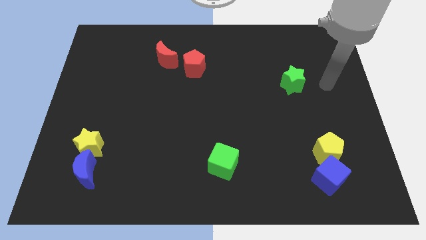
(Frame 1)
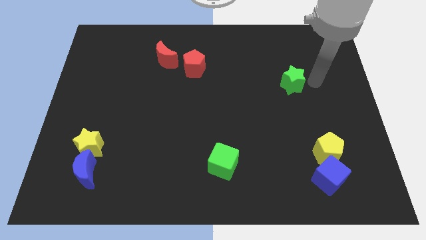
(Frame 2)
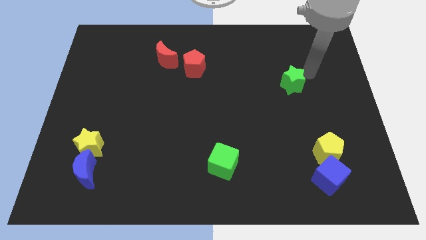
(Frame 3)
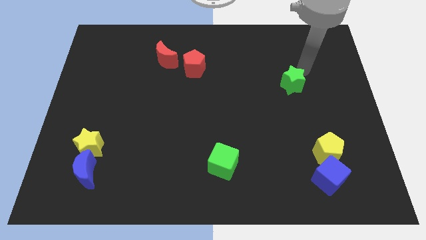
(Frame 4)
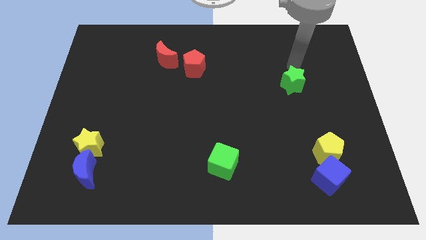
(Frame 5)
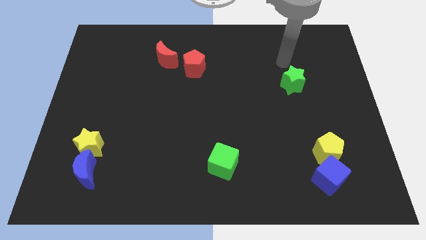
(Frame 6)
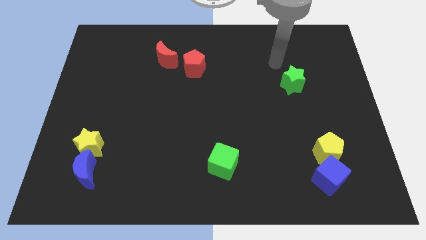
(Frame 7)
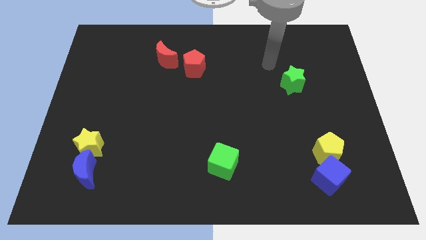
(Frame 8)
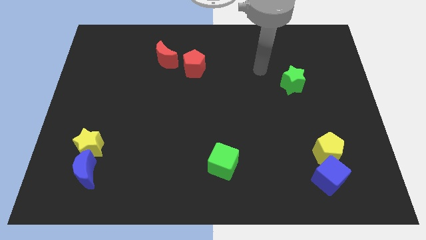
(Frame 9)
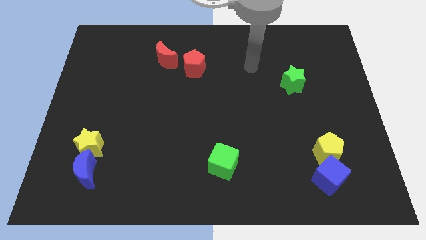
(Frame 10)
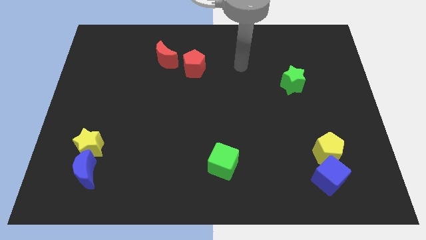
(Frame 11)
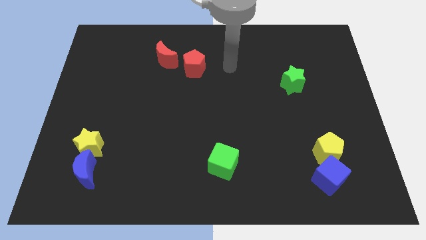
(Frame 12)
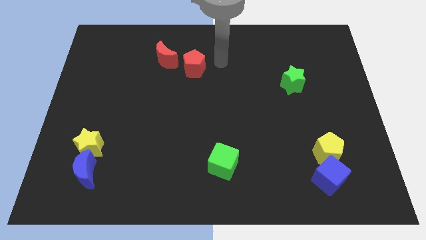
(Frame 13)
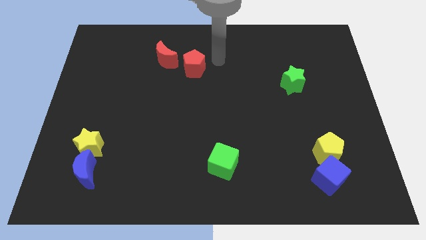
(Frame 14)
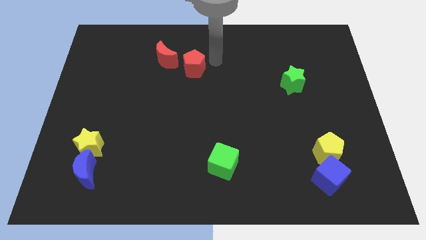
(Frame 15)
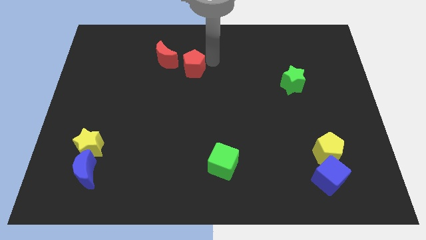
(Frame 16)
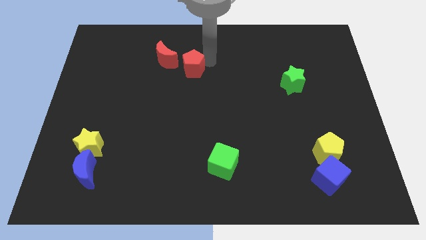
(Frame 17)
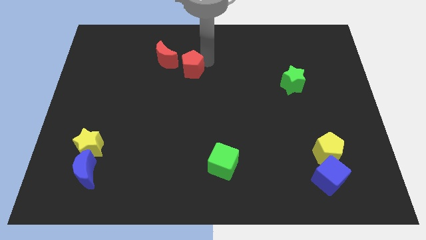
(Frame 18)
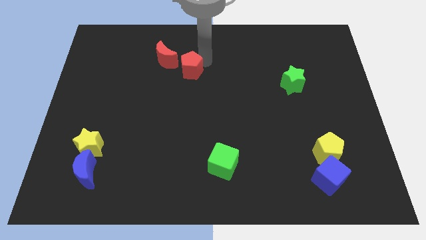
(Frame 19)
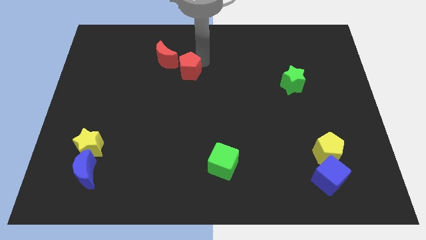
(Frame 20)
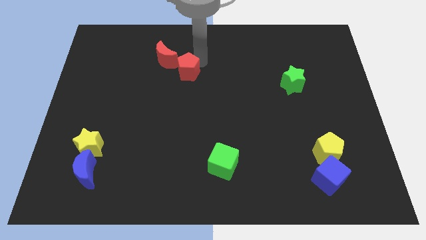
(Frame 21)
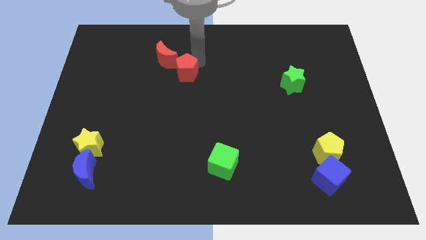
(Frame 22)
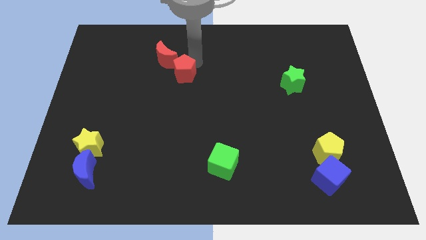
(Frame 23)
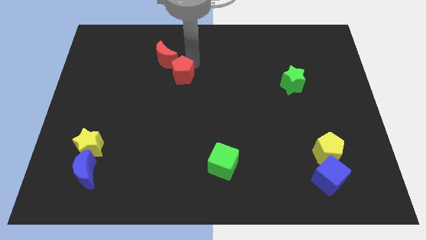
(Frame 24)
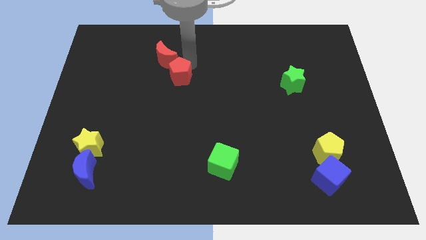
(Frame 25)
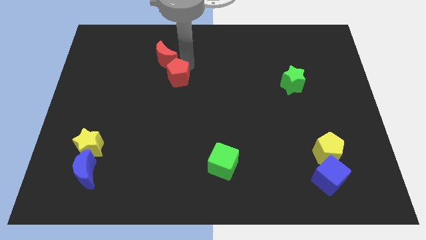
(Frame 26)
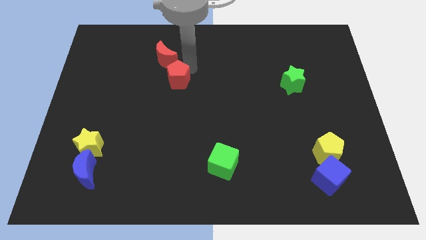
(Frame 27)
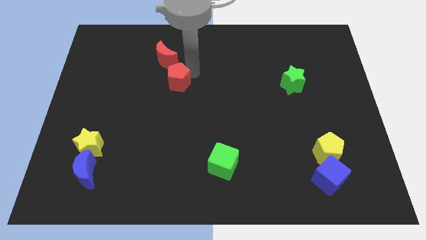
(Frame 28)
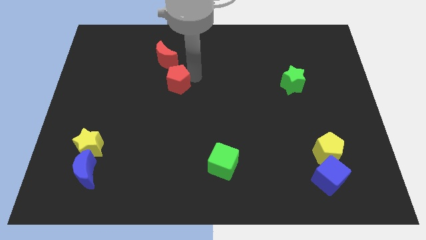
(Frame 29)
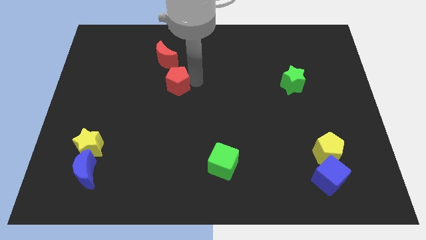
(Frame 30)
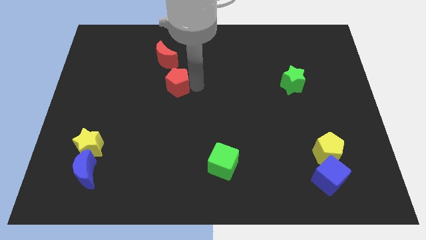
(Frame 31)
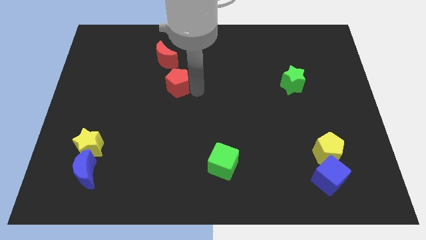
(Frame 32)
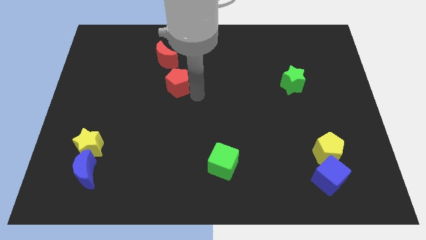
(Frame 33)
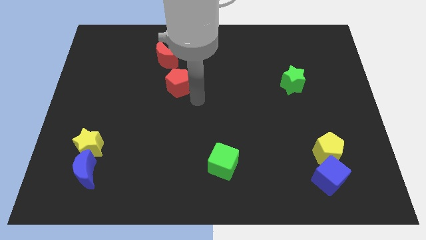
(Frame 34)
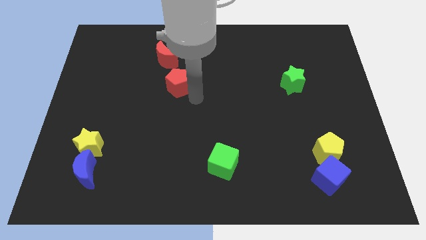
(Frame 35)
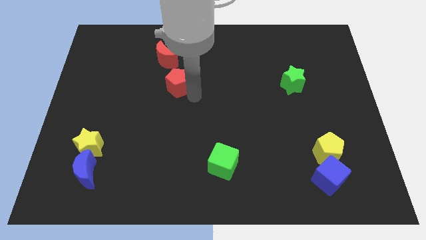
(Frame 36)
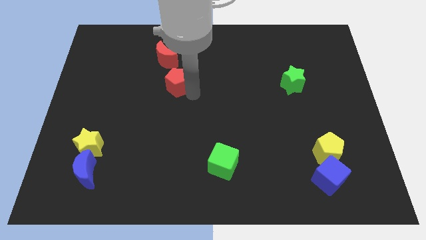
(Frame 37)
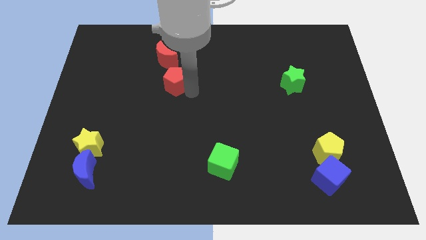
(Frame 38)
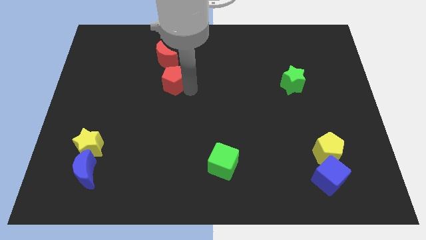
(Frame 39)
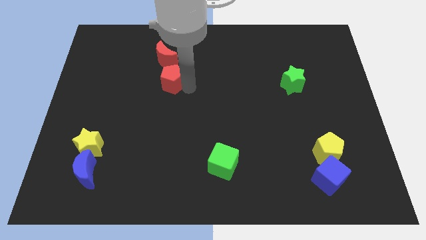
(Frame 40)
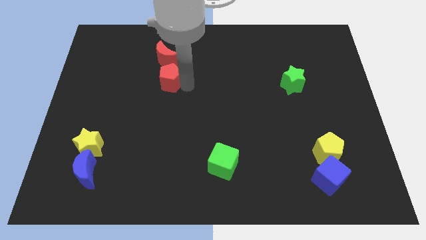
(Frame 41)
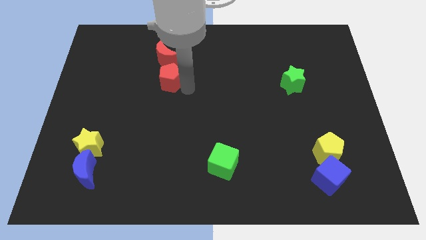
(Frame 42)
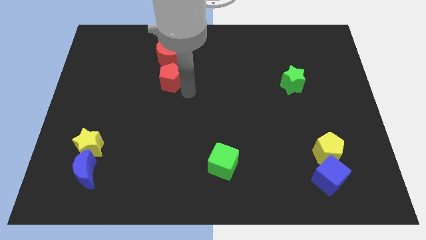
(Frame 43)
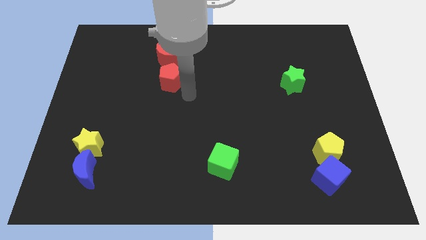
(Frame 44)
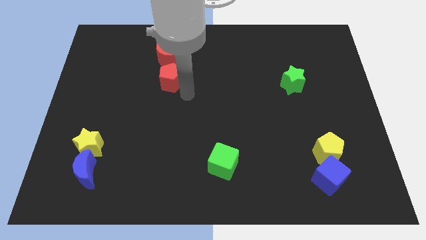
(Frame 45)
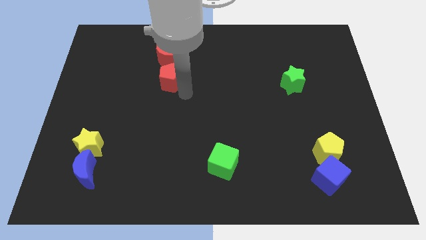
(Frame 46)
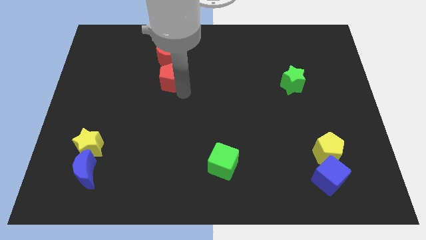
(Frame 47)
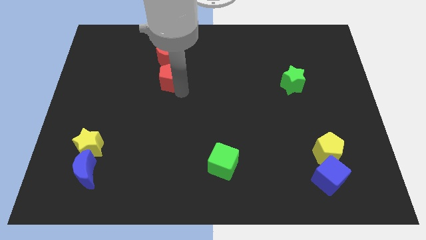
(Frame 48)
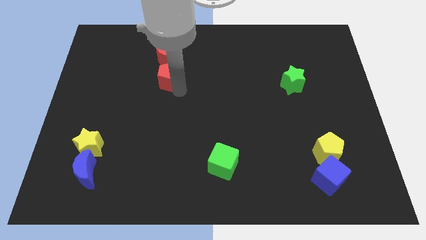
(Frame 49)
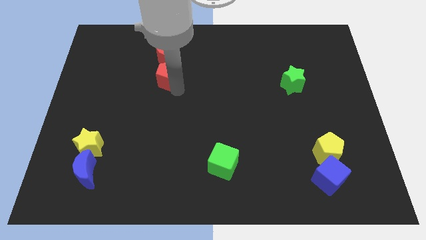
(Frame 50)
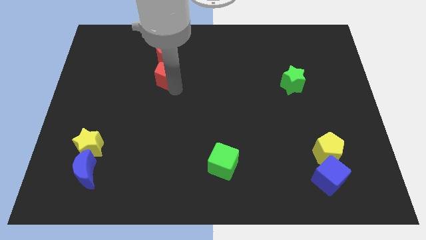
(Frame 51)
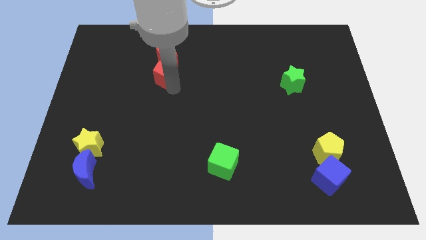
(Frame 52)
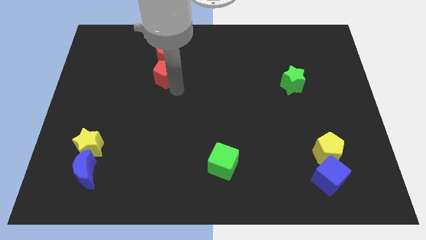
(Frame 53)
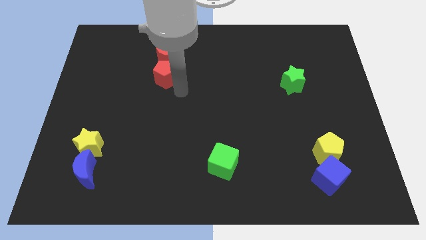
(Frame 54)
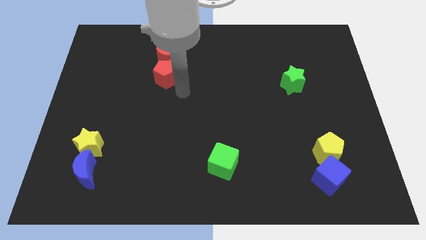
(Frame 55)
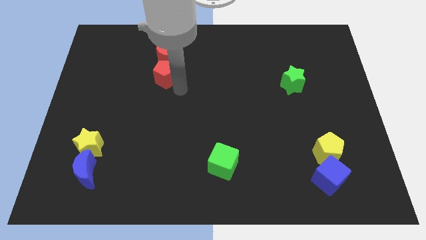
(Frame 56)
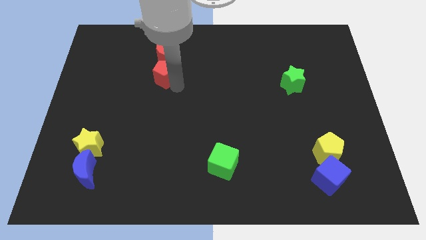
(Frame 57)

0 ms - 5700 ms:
push the red pentagon left a little bit

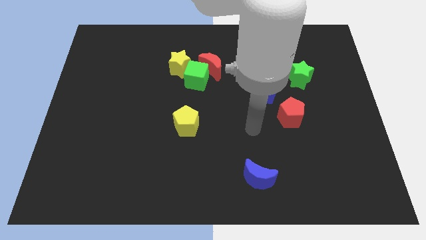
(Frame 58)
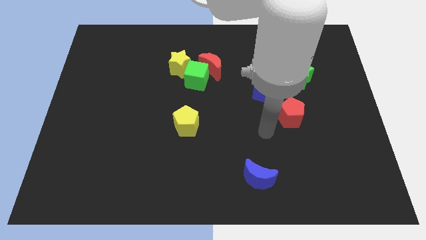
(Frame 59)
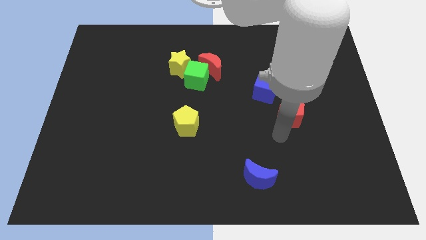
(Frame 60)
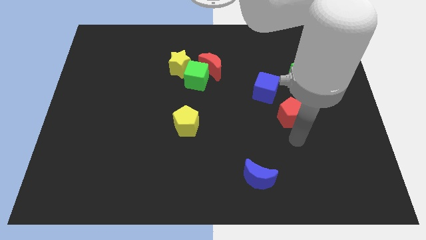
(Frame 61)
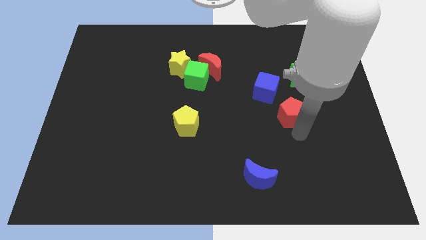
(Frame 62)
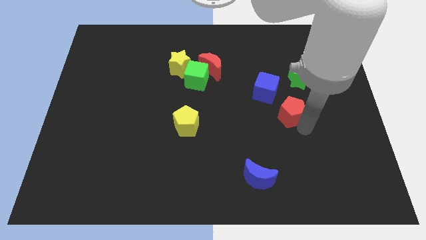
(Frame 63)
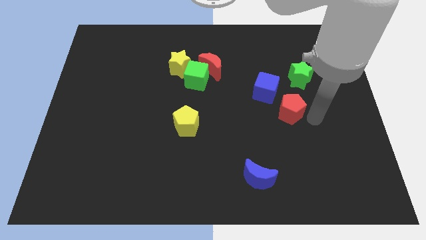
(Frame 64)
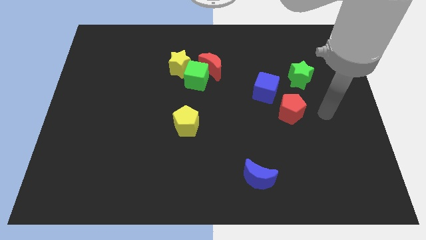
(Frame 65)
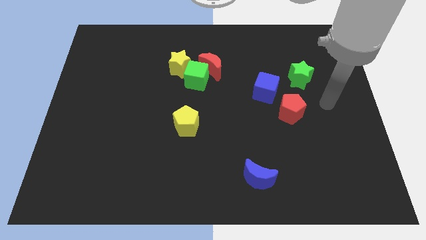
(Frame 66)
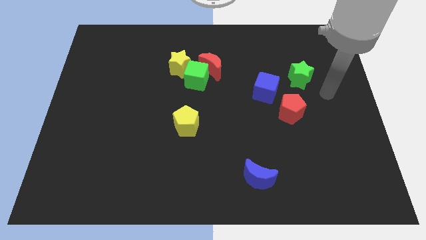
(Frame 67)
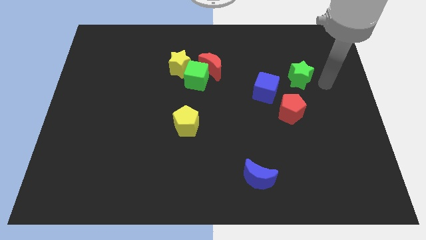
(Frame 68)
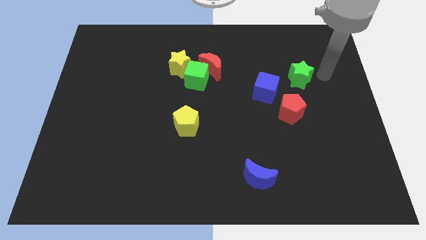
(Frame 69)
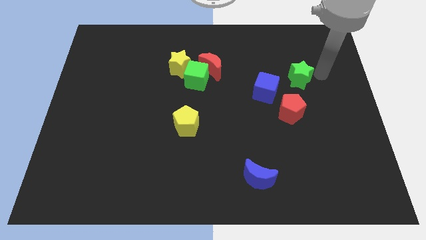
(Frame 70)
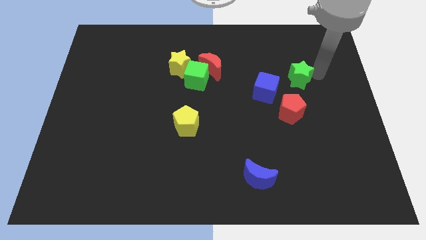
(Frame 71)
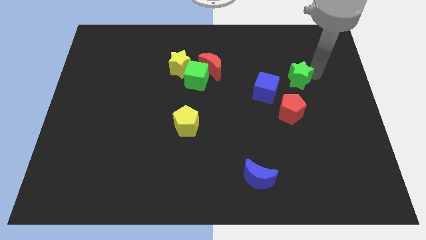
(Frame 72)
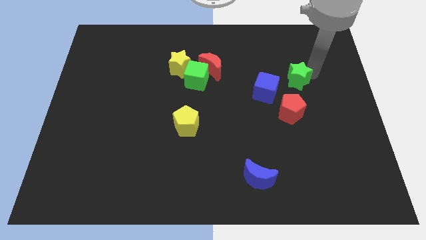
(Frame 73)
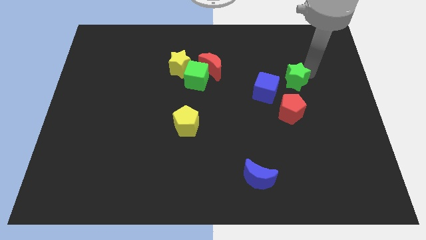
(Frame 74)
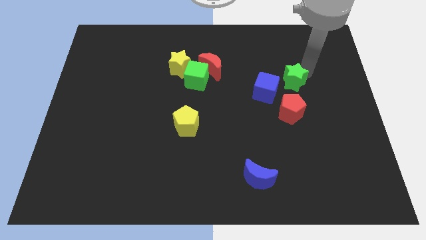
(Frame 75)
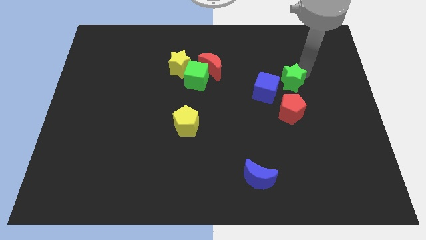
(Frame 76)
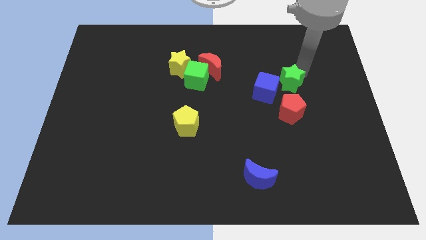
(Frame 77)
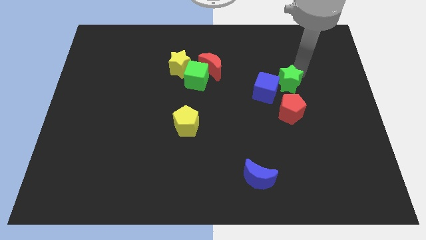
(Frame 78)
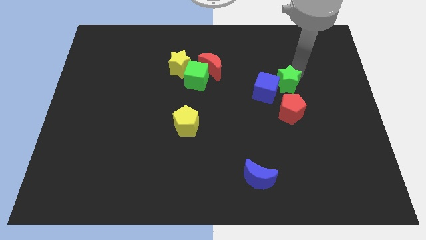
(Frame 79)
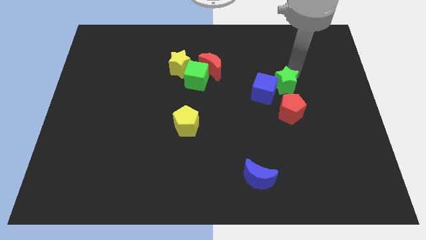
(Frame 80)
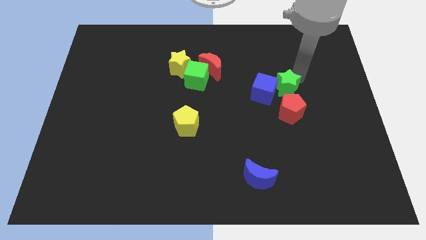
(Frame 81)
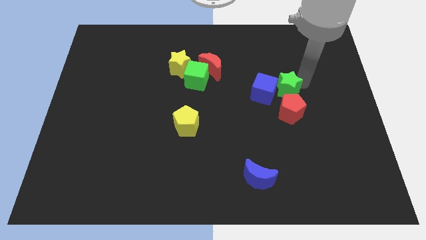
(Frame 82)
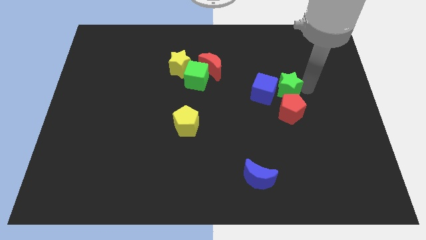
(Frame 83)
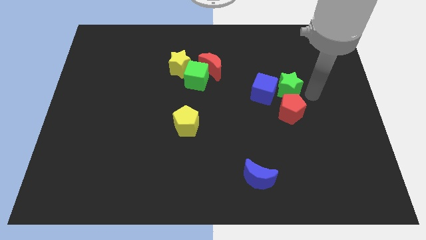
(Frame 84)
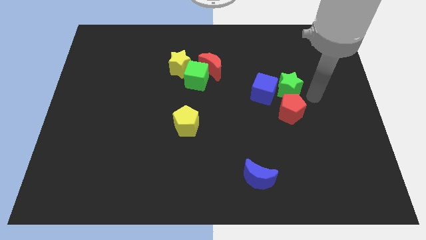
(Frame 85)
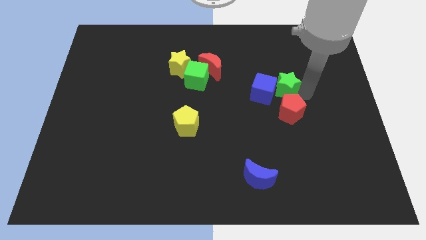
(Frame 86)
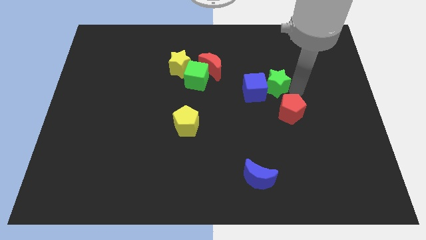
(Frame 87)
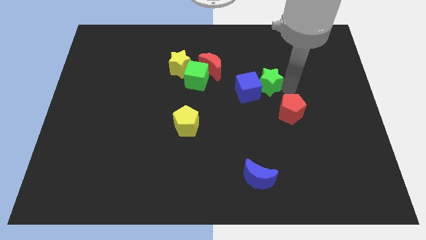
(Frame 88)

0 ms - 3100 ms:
move the green star to the left a bit
